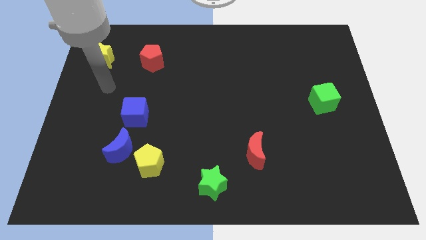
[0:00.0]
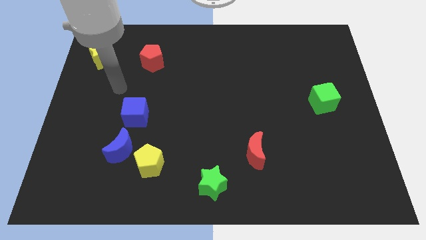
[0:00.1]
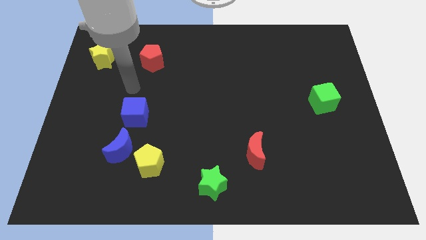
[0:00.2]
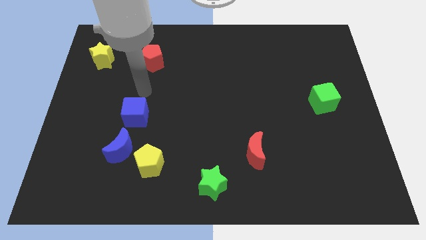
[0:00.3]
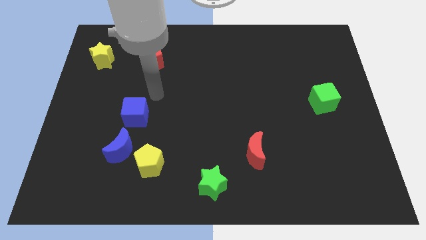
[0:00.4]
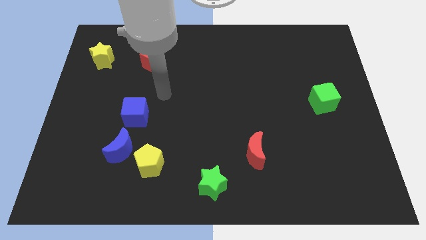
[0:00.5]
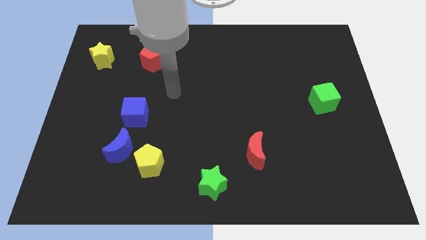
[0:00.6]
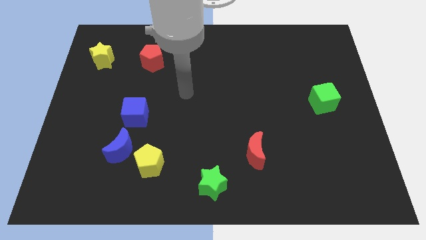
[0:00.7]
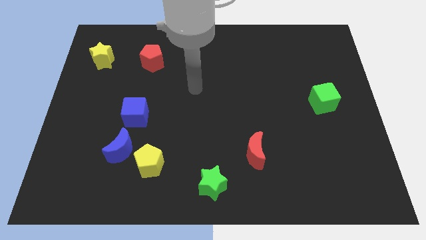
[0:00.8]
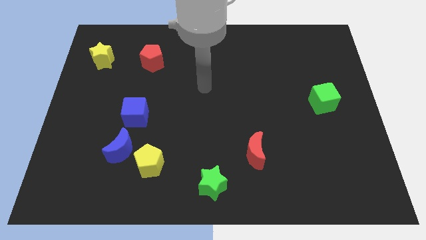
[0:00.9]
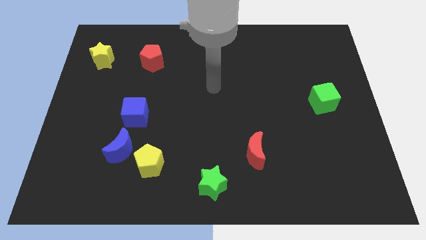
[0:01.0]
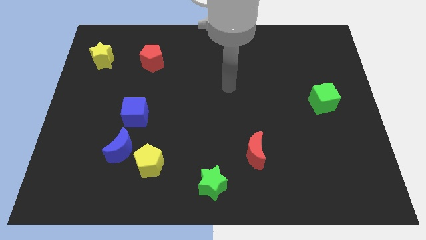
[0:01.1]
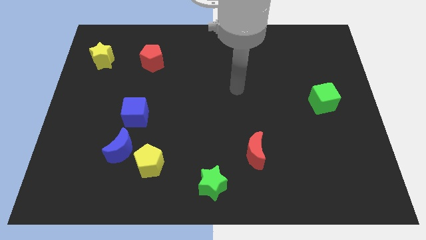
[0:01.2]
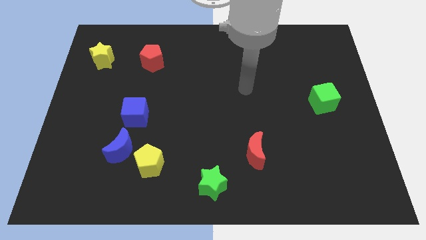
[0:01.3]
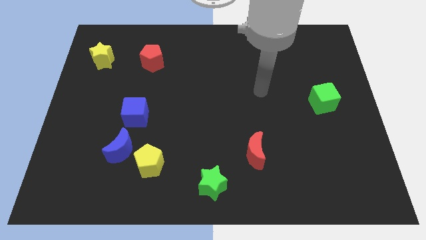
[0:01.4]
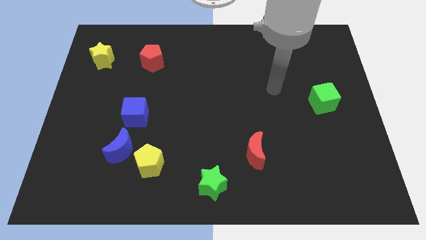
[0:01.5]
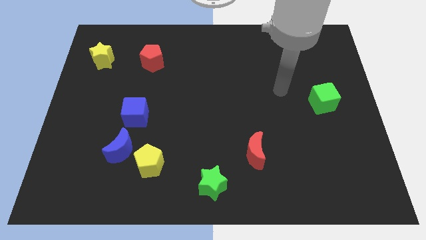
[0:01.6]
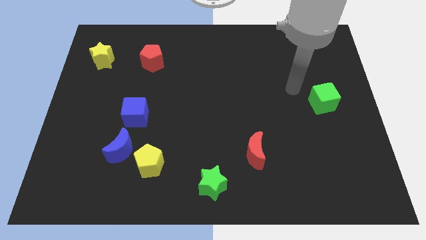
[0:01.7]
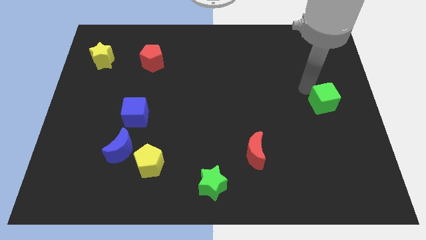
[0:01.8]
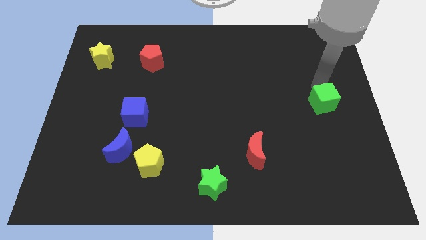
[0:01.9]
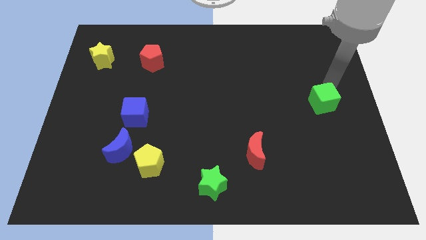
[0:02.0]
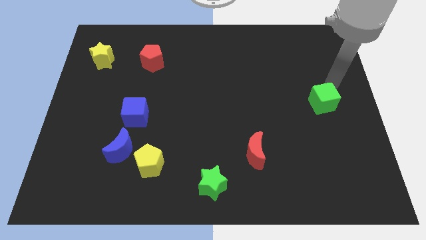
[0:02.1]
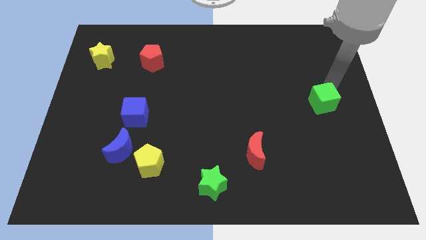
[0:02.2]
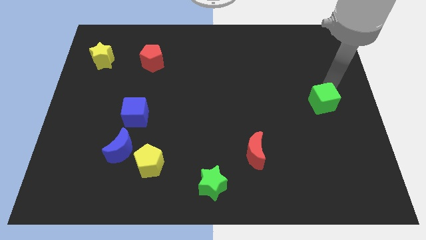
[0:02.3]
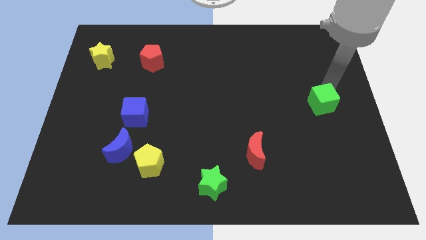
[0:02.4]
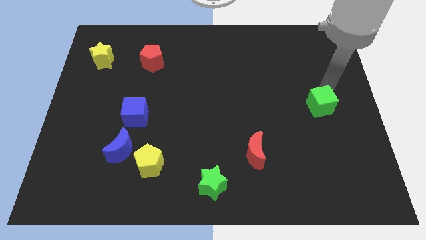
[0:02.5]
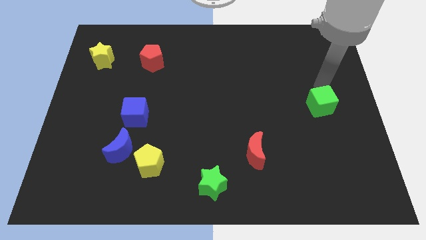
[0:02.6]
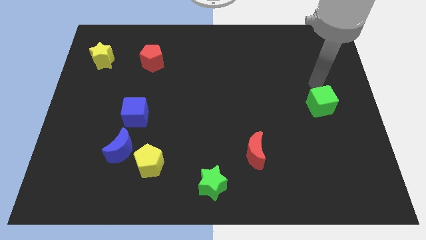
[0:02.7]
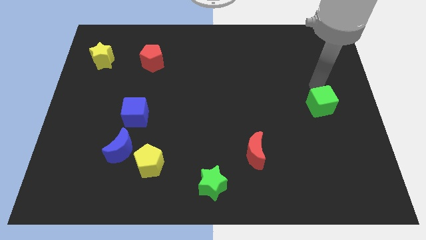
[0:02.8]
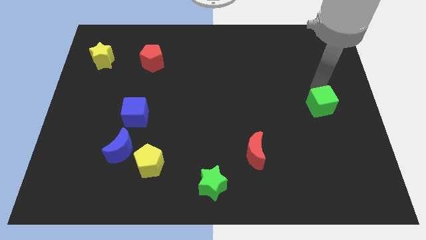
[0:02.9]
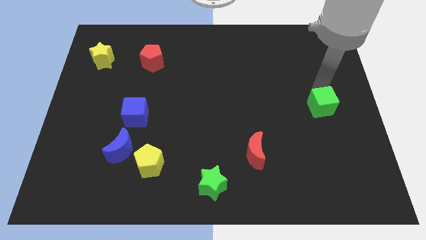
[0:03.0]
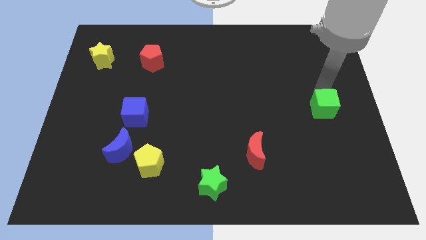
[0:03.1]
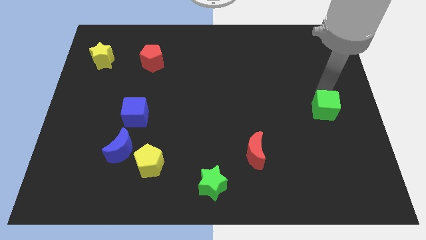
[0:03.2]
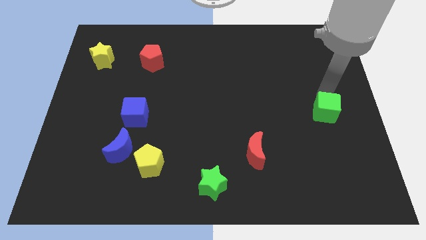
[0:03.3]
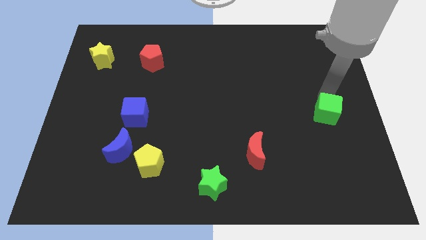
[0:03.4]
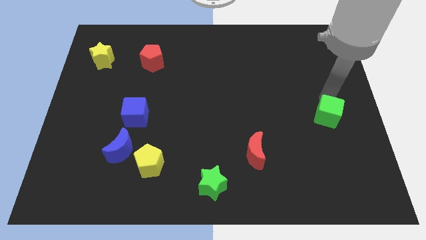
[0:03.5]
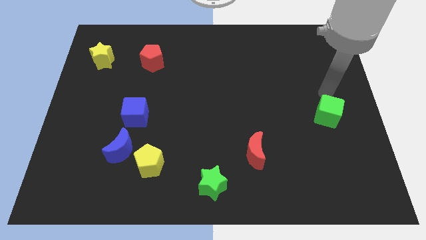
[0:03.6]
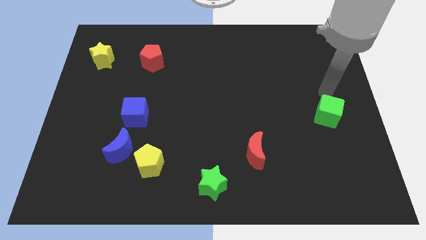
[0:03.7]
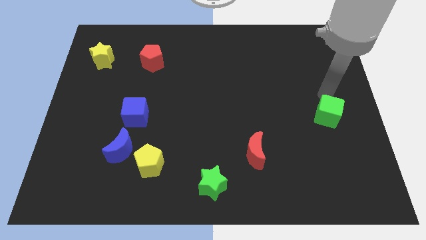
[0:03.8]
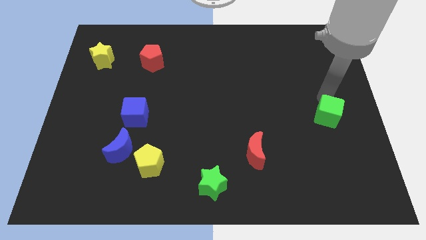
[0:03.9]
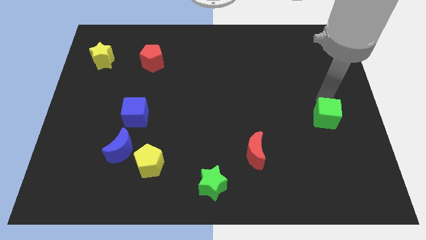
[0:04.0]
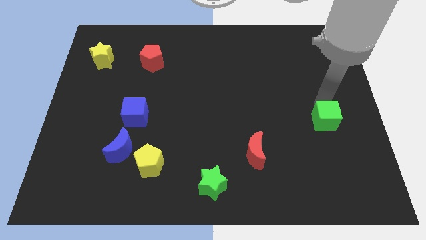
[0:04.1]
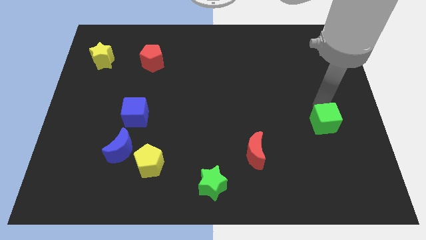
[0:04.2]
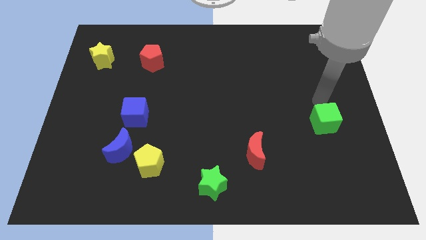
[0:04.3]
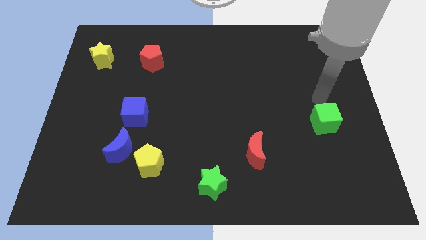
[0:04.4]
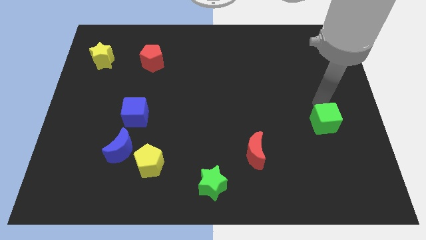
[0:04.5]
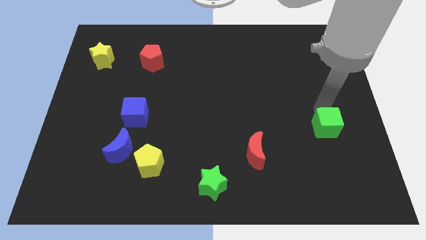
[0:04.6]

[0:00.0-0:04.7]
move the green cube a little downwards

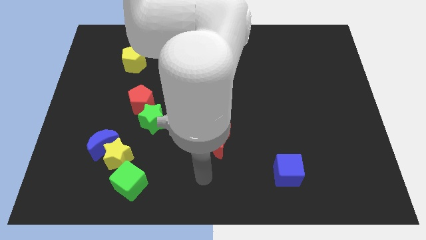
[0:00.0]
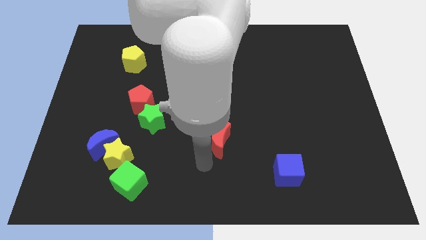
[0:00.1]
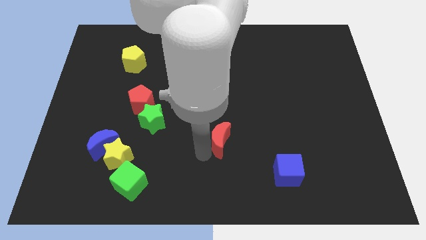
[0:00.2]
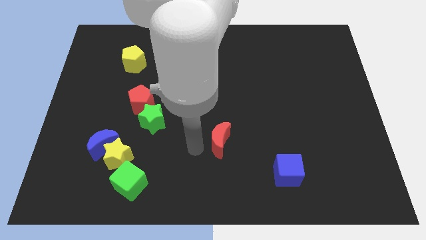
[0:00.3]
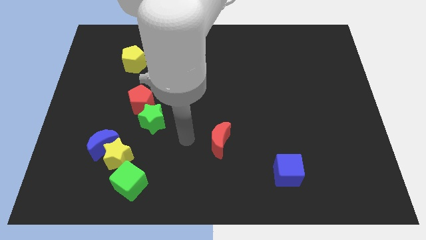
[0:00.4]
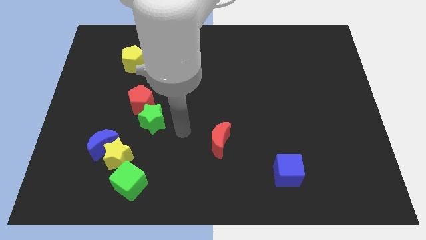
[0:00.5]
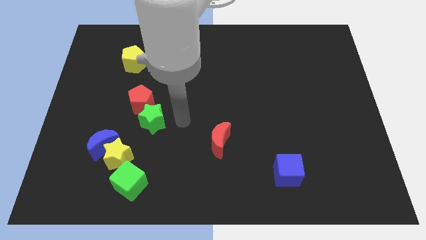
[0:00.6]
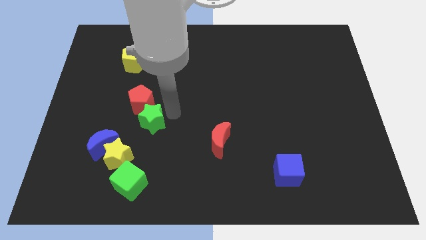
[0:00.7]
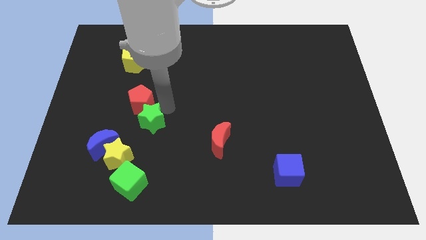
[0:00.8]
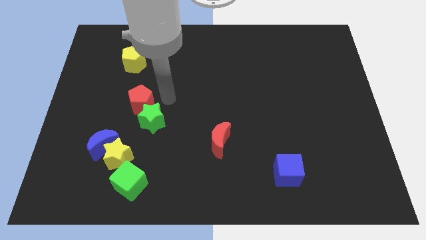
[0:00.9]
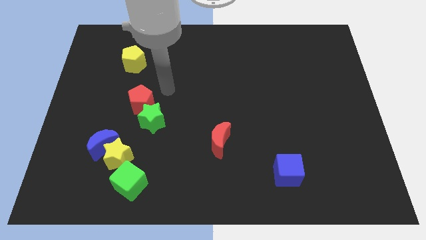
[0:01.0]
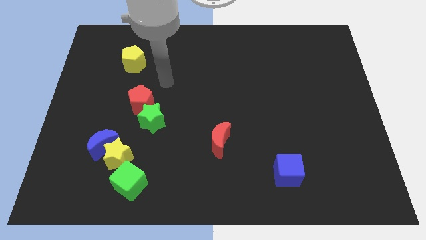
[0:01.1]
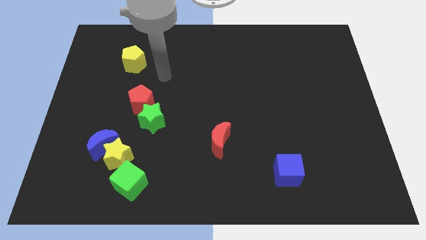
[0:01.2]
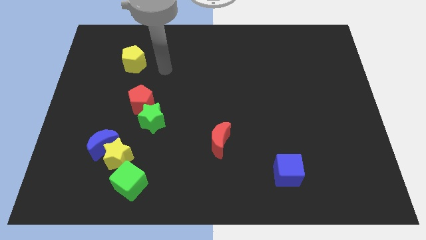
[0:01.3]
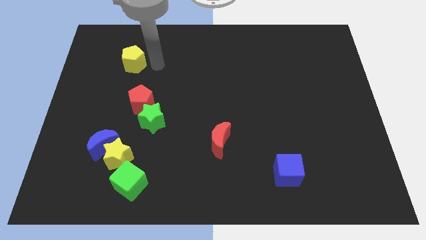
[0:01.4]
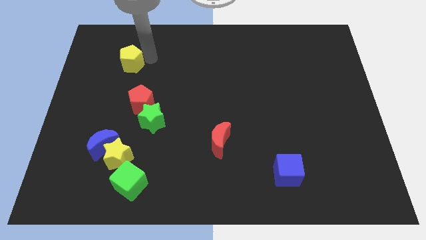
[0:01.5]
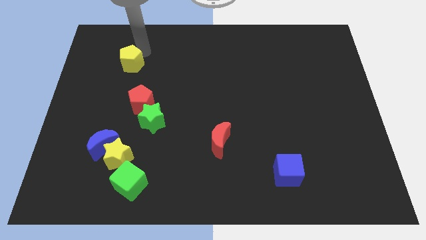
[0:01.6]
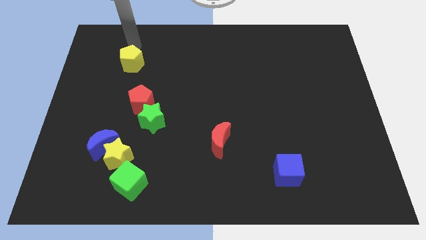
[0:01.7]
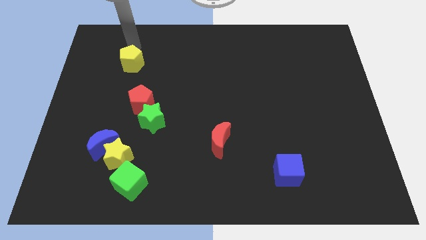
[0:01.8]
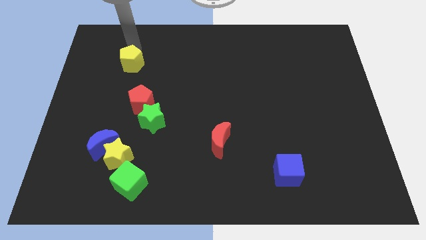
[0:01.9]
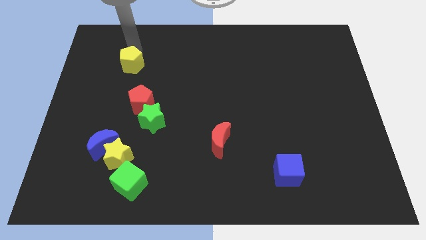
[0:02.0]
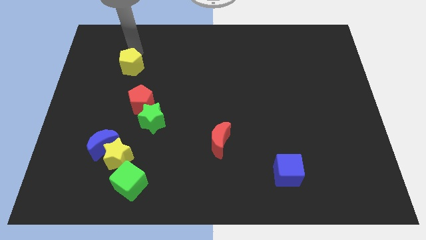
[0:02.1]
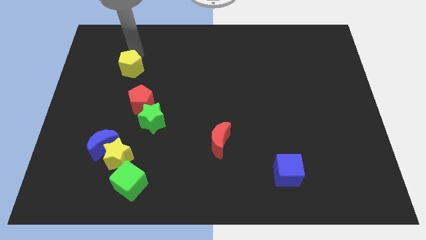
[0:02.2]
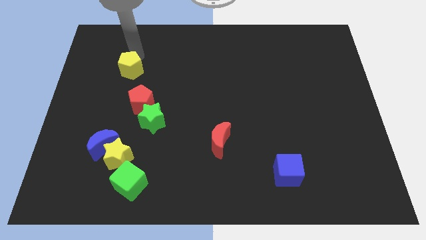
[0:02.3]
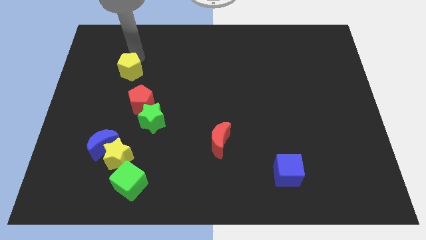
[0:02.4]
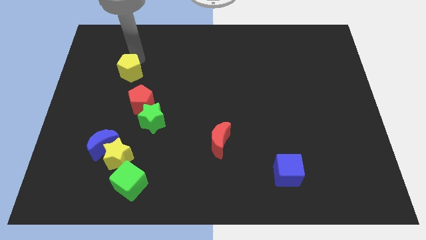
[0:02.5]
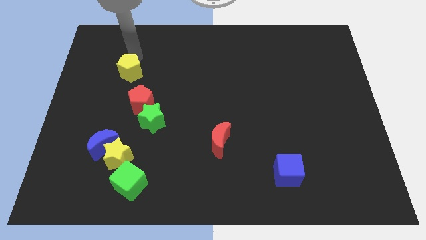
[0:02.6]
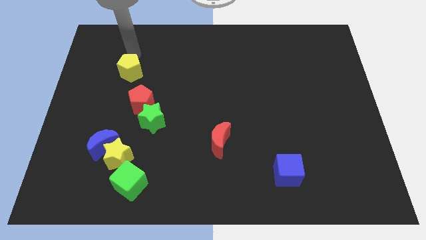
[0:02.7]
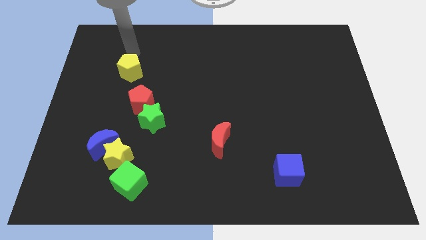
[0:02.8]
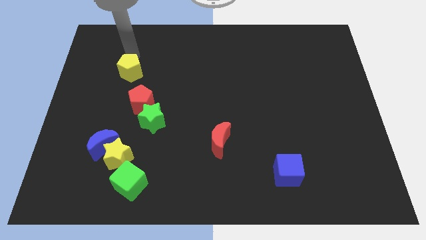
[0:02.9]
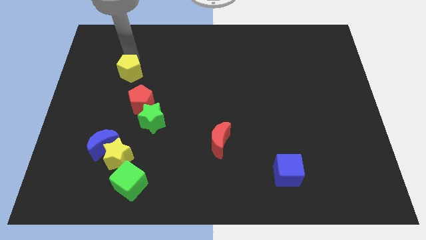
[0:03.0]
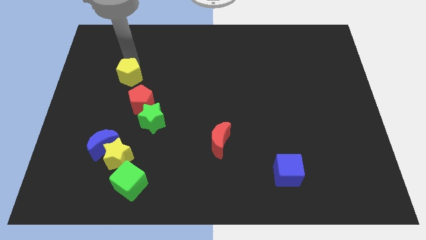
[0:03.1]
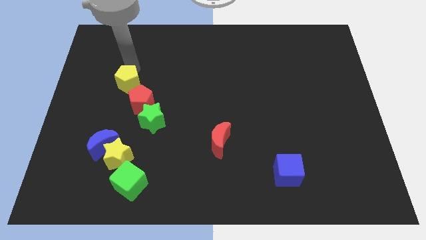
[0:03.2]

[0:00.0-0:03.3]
slide the yellow pentagon down slightly
